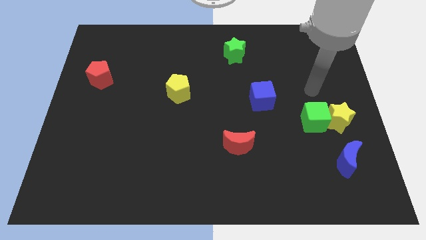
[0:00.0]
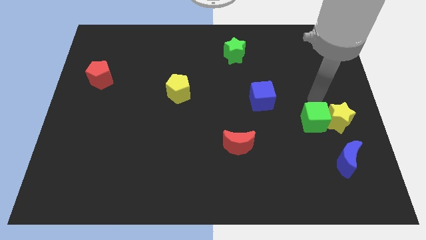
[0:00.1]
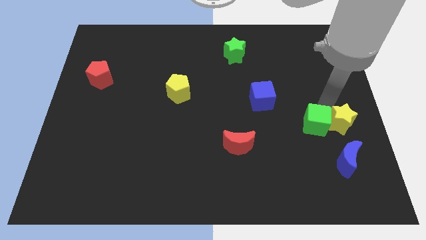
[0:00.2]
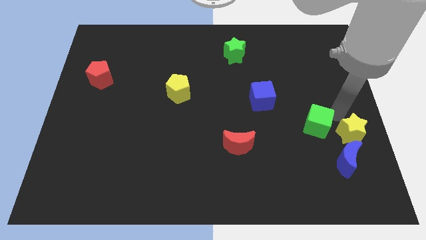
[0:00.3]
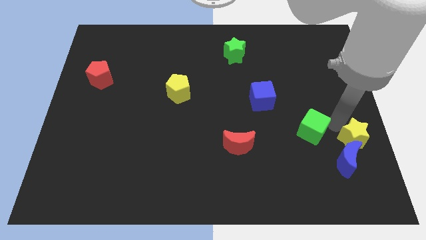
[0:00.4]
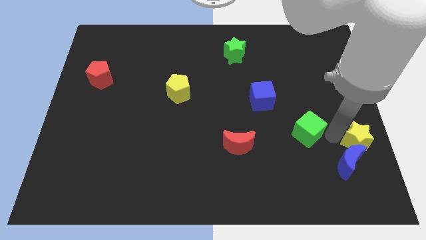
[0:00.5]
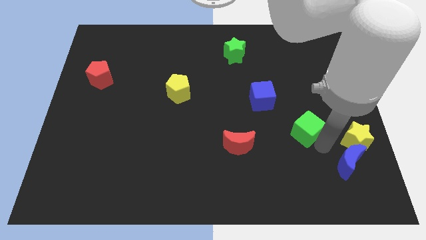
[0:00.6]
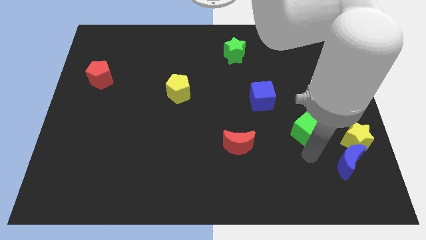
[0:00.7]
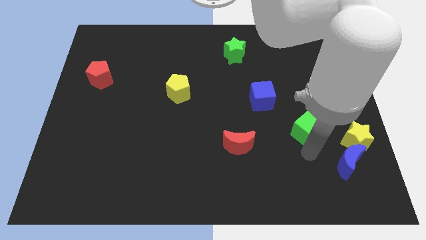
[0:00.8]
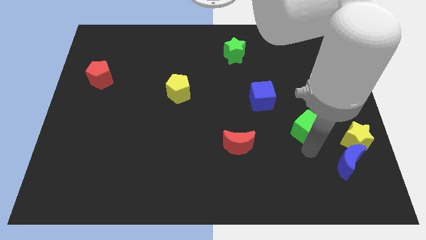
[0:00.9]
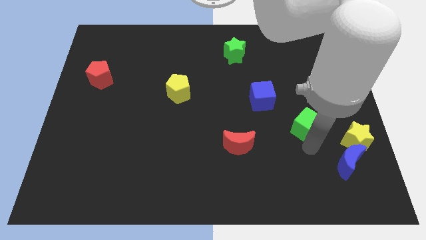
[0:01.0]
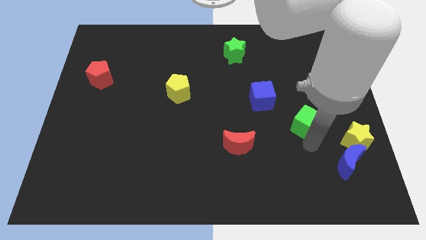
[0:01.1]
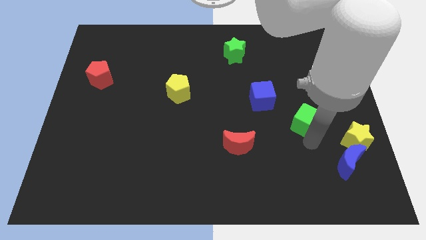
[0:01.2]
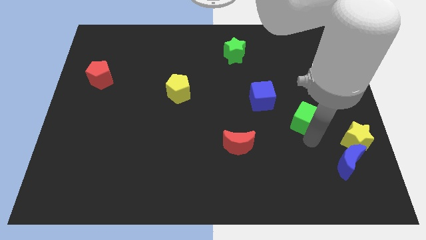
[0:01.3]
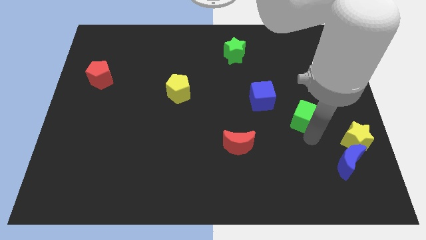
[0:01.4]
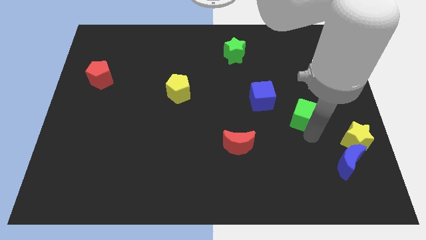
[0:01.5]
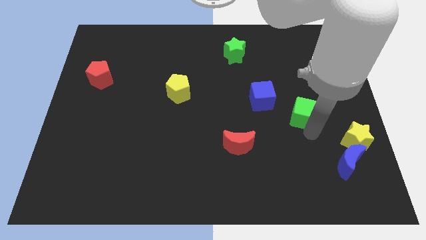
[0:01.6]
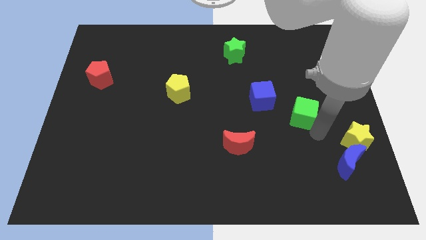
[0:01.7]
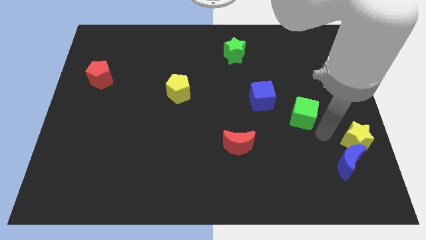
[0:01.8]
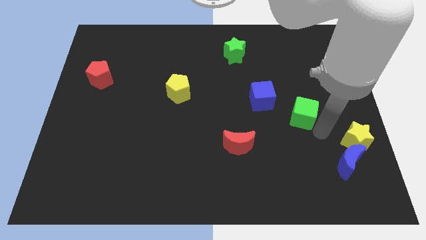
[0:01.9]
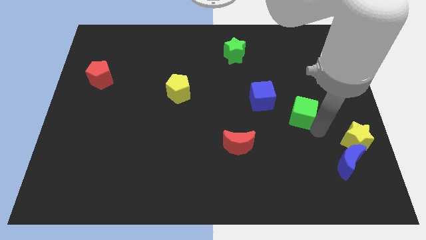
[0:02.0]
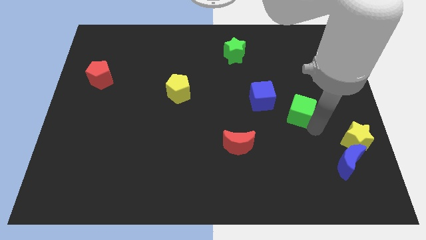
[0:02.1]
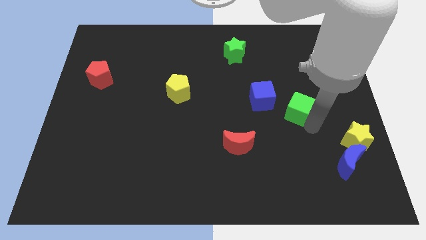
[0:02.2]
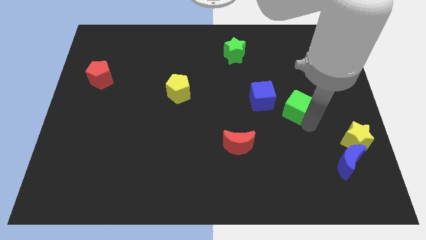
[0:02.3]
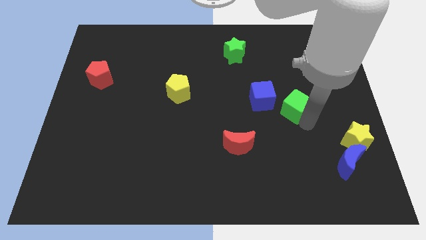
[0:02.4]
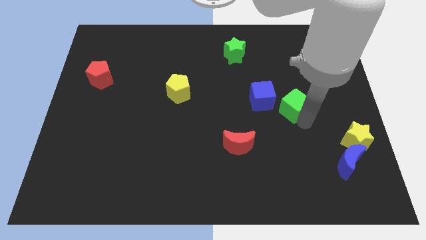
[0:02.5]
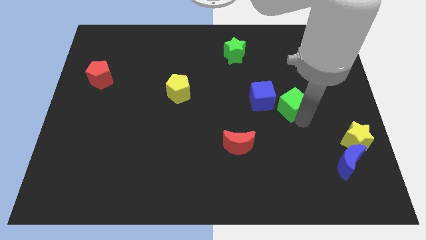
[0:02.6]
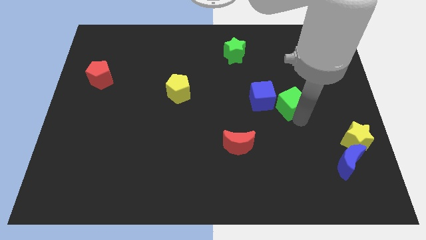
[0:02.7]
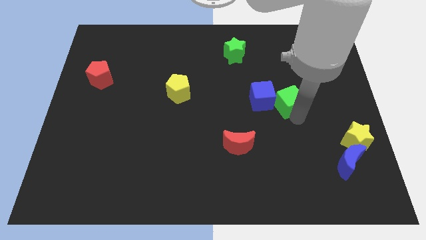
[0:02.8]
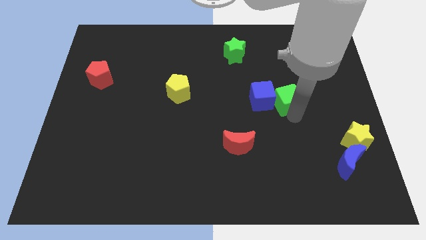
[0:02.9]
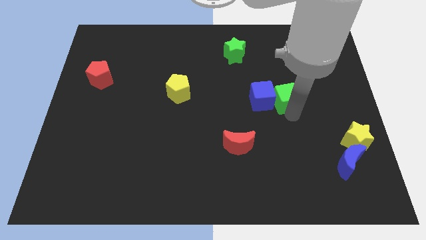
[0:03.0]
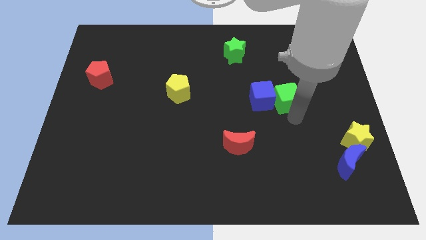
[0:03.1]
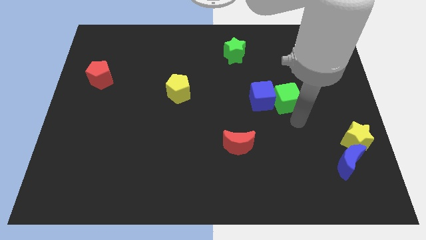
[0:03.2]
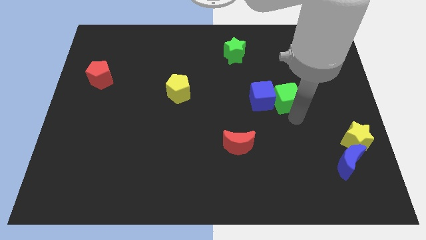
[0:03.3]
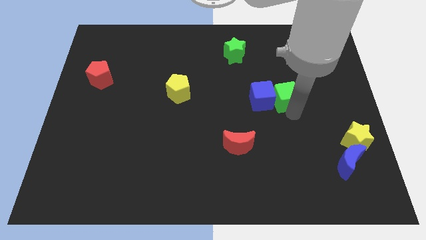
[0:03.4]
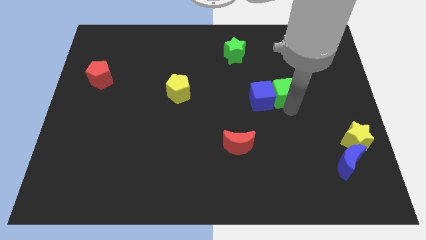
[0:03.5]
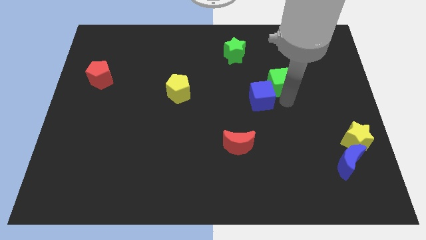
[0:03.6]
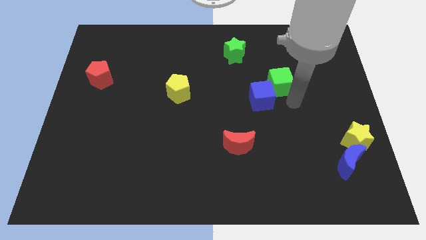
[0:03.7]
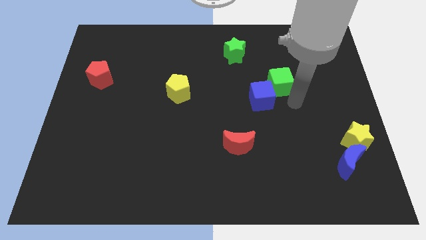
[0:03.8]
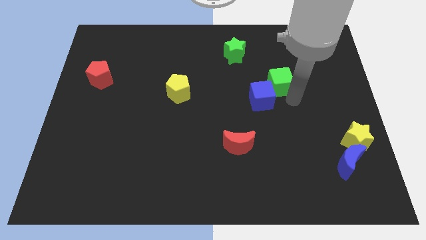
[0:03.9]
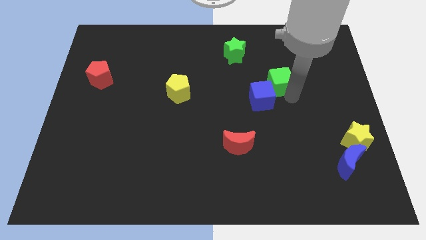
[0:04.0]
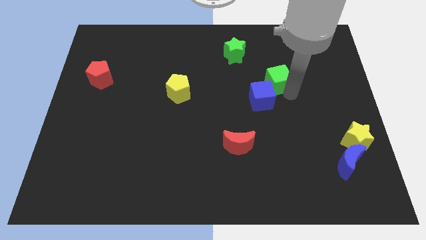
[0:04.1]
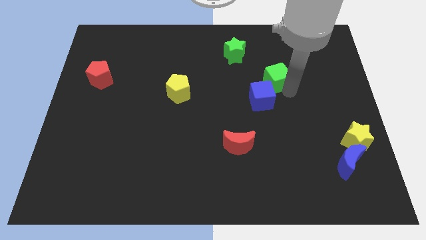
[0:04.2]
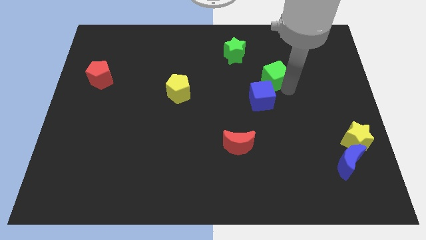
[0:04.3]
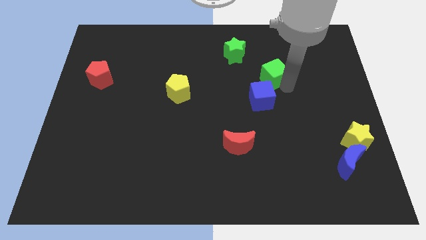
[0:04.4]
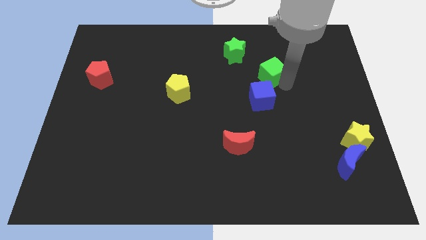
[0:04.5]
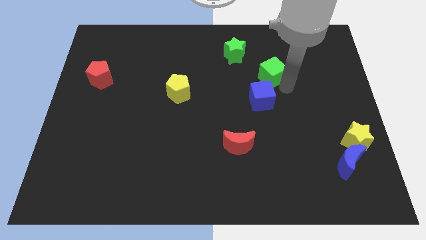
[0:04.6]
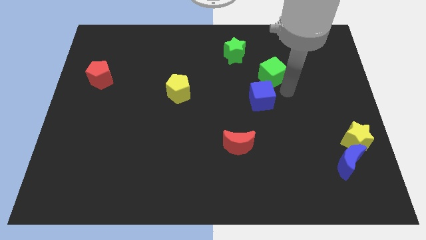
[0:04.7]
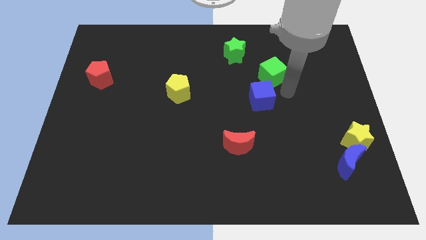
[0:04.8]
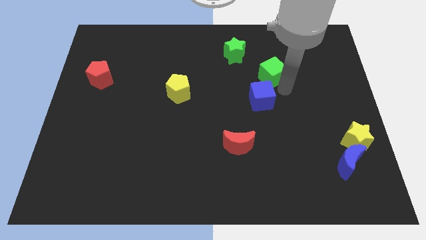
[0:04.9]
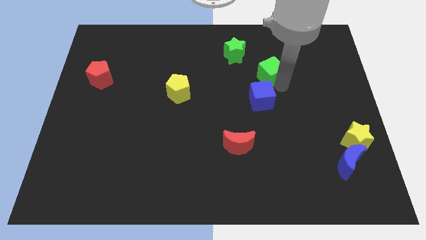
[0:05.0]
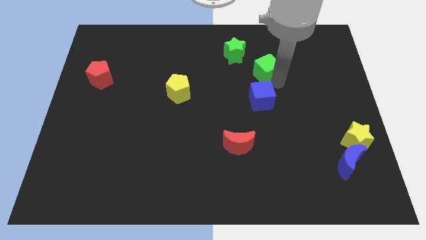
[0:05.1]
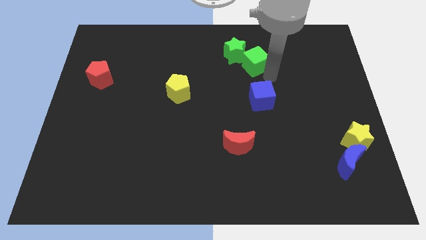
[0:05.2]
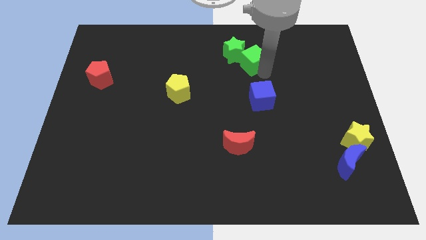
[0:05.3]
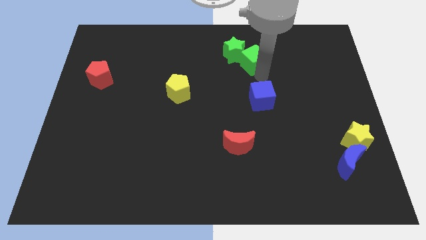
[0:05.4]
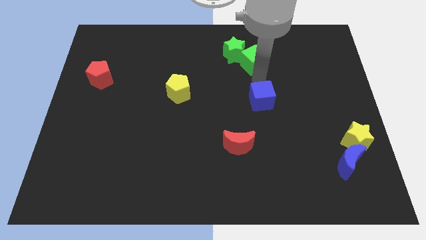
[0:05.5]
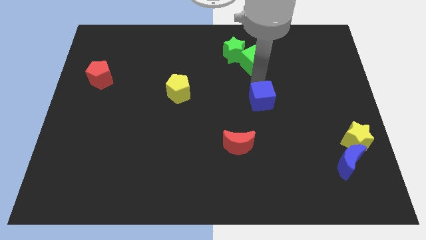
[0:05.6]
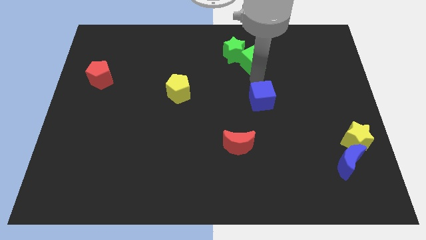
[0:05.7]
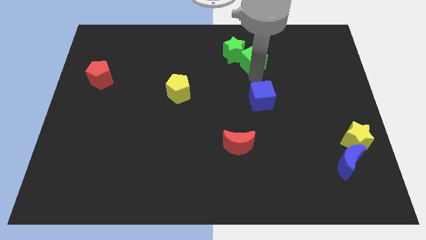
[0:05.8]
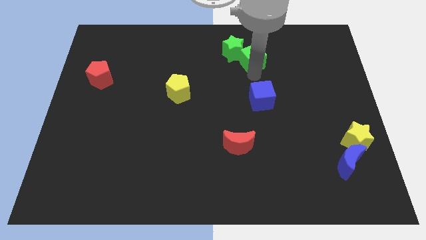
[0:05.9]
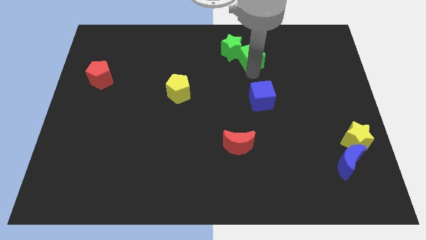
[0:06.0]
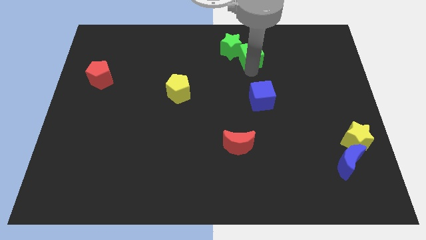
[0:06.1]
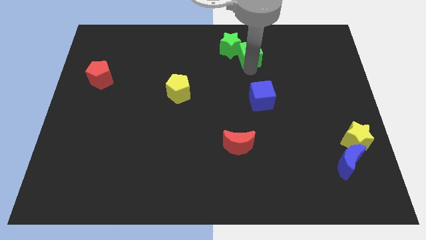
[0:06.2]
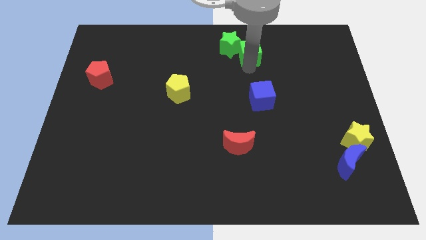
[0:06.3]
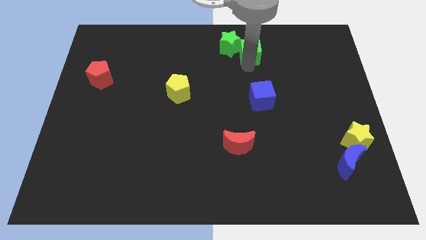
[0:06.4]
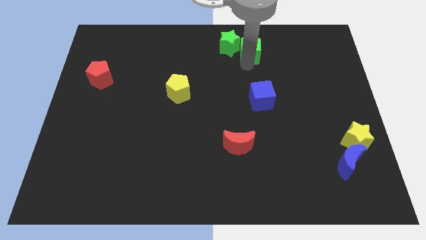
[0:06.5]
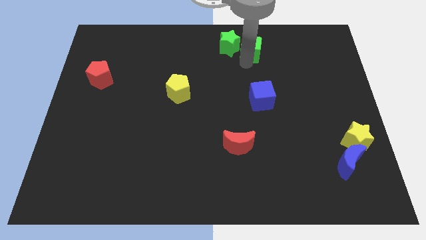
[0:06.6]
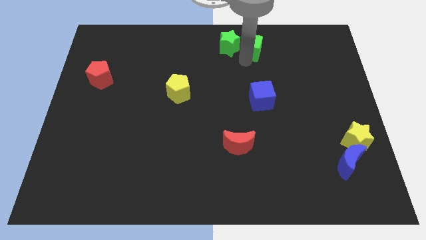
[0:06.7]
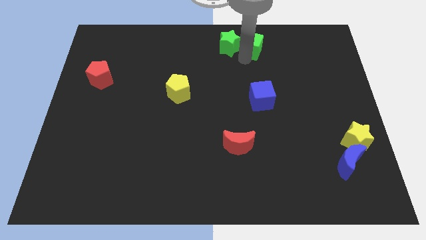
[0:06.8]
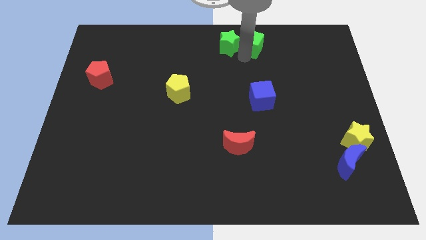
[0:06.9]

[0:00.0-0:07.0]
put the green cube to the towards your base
